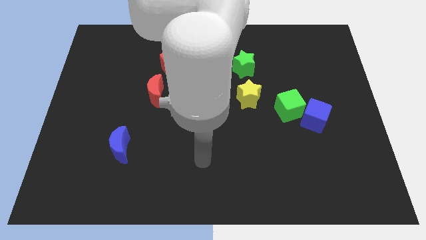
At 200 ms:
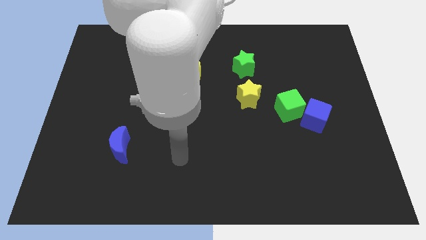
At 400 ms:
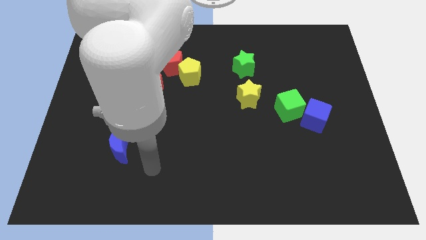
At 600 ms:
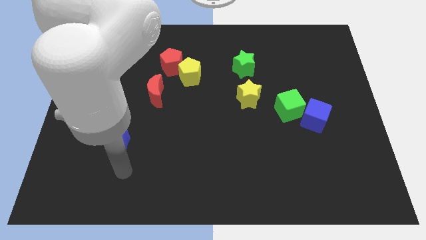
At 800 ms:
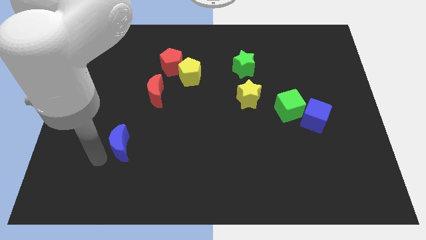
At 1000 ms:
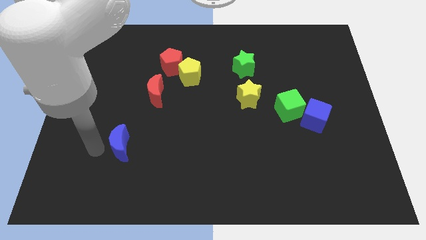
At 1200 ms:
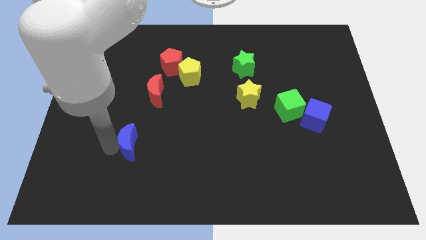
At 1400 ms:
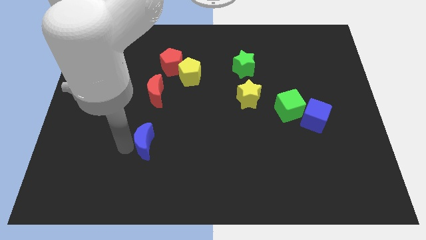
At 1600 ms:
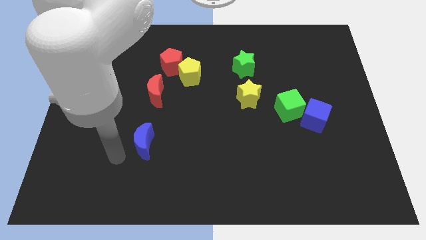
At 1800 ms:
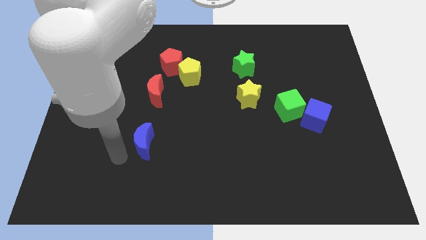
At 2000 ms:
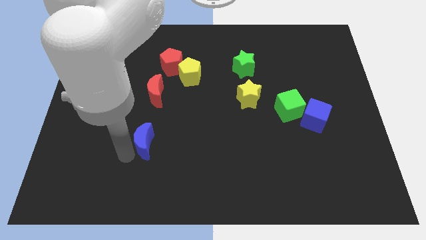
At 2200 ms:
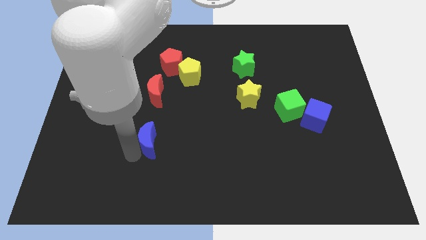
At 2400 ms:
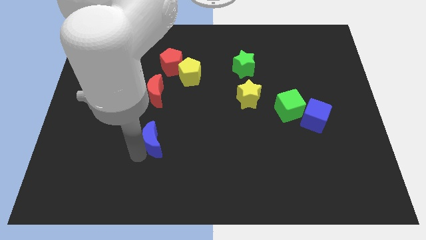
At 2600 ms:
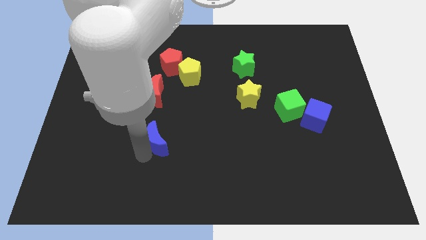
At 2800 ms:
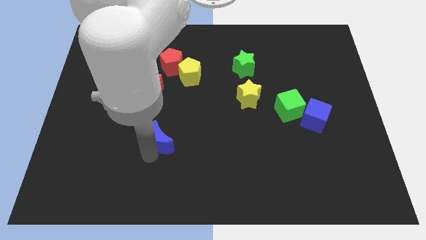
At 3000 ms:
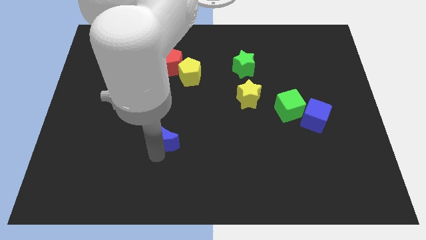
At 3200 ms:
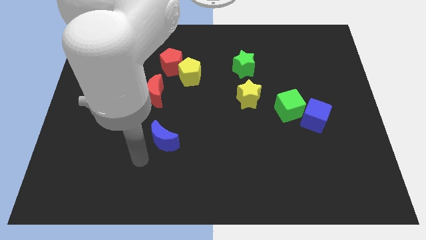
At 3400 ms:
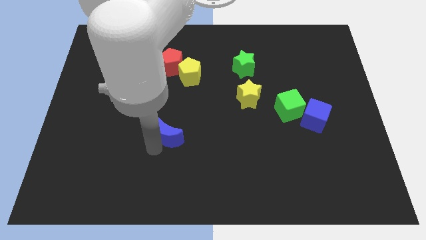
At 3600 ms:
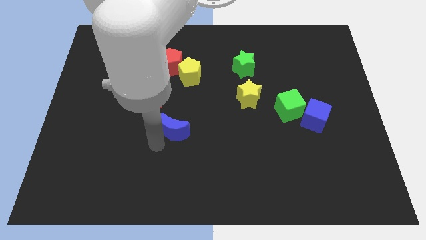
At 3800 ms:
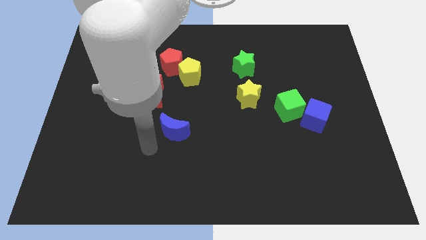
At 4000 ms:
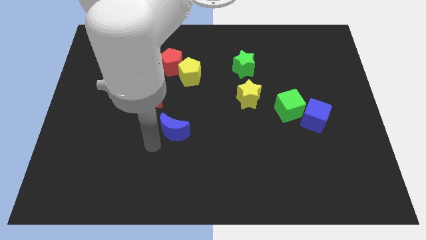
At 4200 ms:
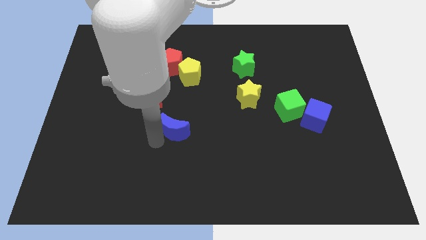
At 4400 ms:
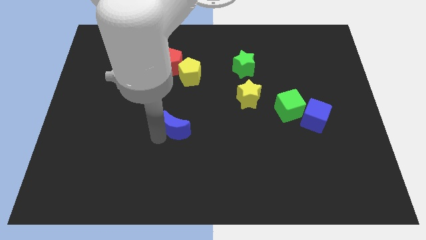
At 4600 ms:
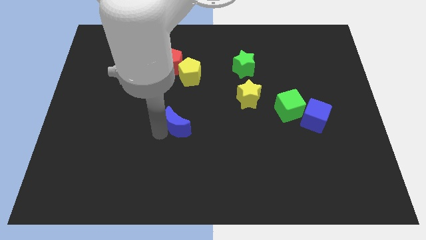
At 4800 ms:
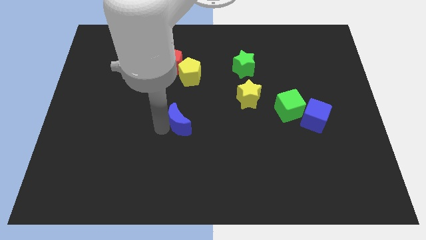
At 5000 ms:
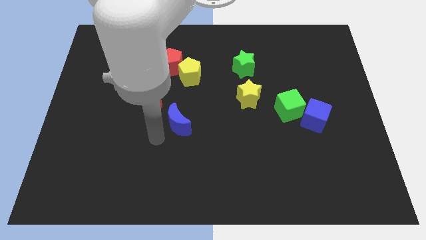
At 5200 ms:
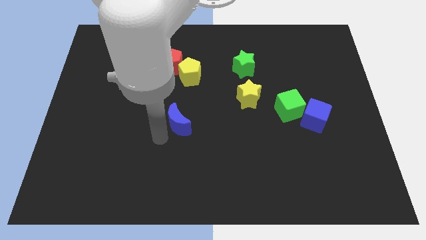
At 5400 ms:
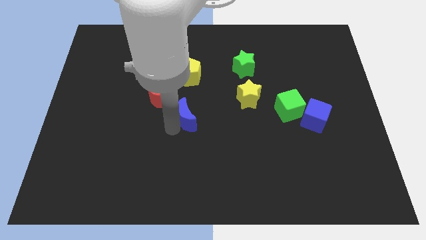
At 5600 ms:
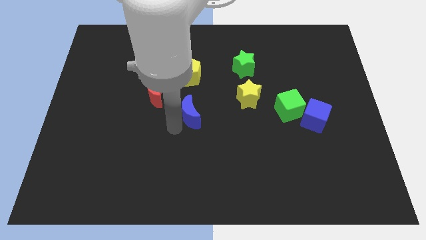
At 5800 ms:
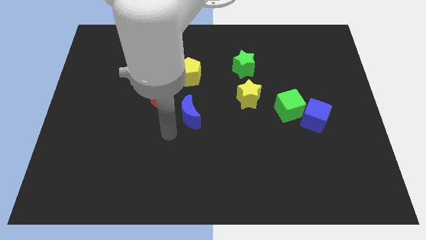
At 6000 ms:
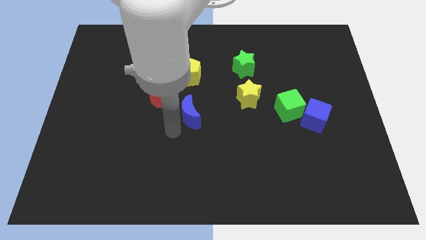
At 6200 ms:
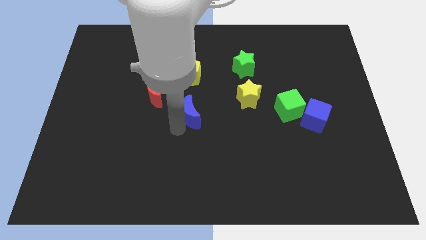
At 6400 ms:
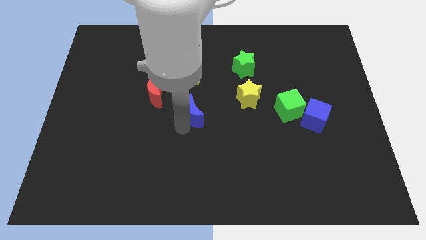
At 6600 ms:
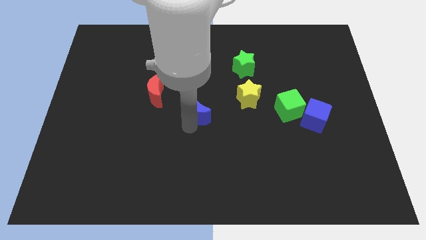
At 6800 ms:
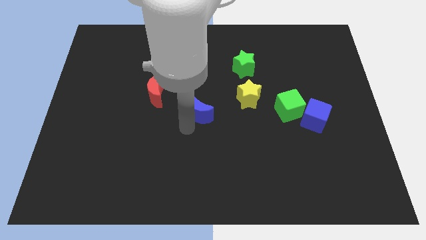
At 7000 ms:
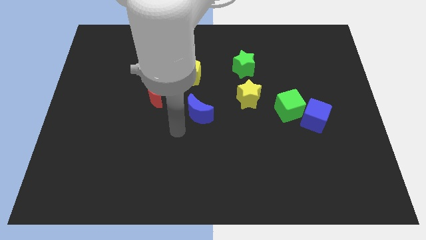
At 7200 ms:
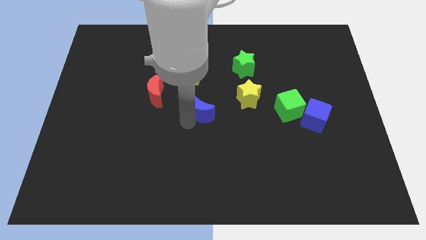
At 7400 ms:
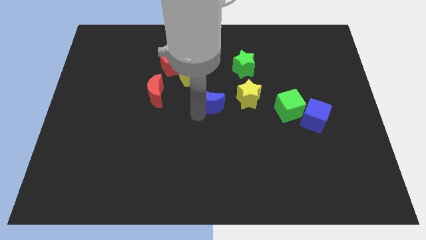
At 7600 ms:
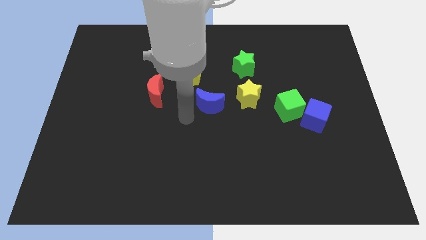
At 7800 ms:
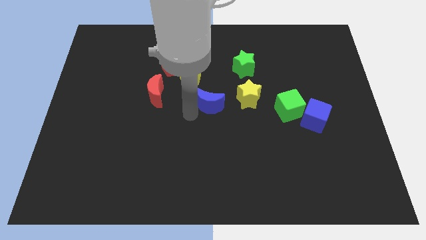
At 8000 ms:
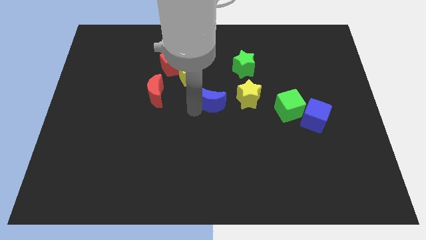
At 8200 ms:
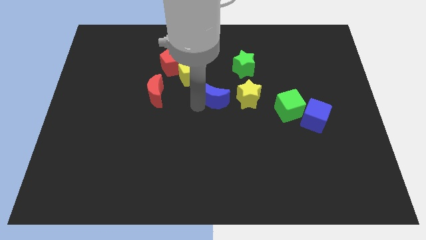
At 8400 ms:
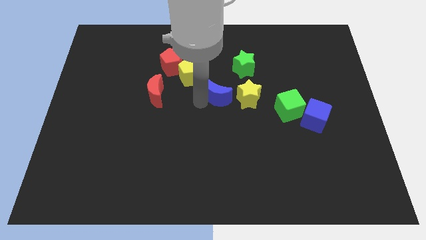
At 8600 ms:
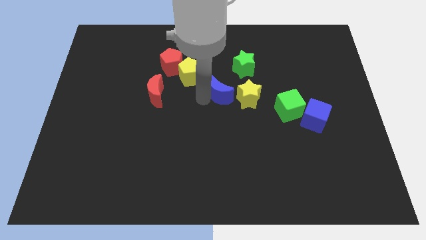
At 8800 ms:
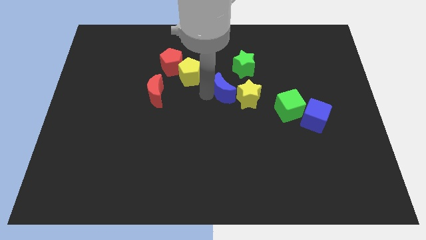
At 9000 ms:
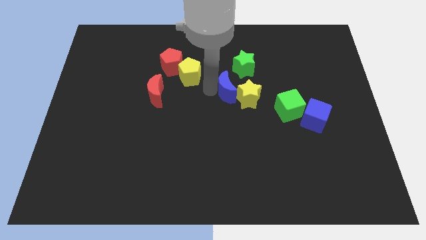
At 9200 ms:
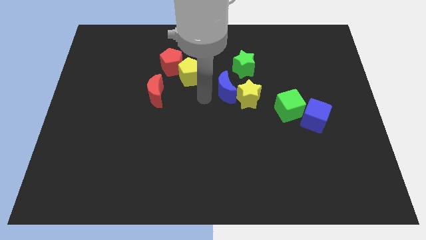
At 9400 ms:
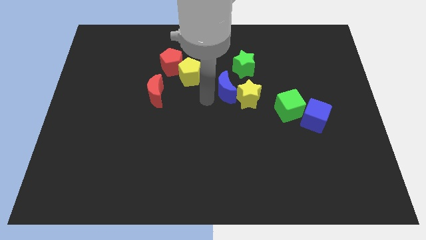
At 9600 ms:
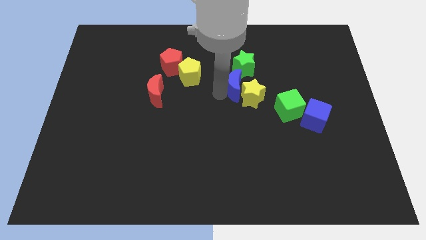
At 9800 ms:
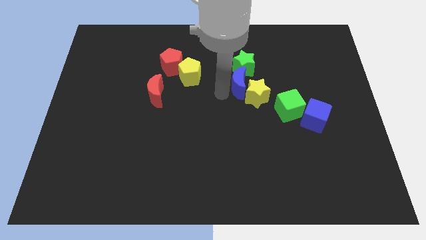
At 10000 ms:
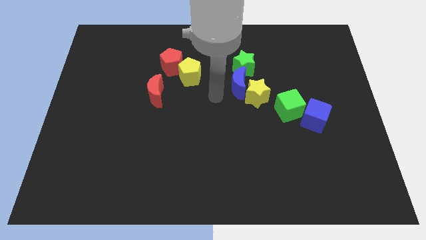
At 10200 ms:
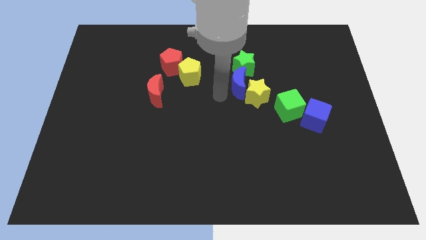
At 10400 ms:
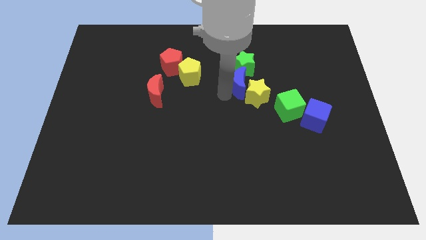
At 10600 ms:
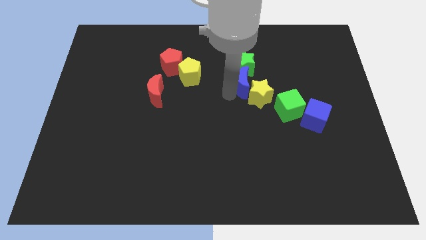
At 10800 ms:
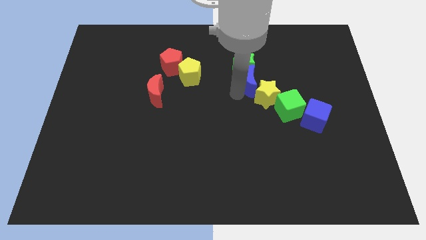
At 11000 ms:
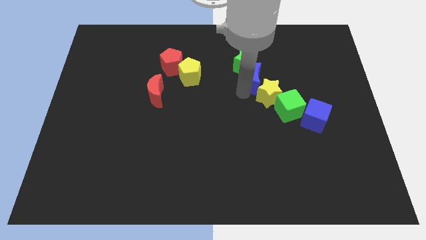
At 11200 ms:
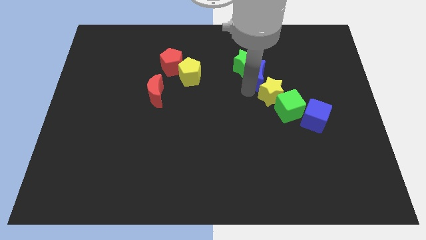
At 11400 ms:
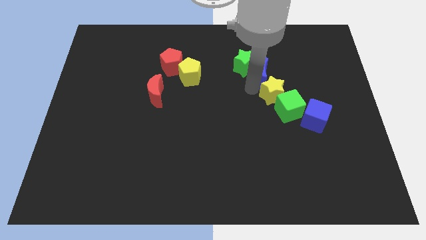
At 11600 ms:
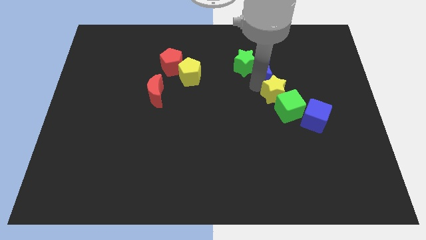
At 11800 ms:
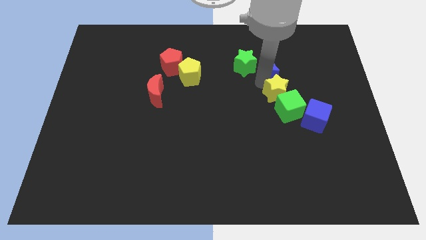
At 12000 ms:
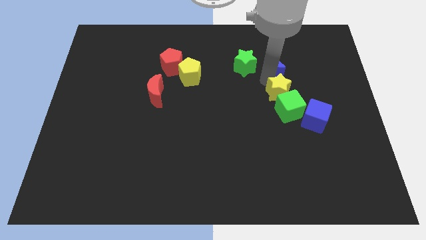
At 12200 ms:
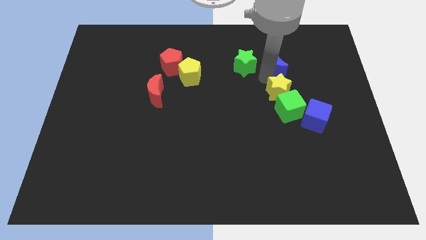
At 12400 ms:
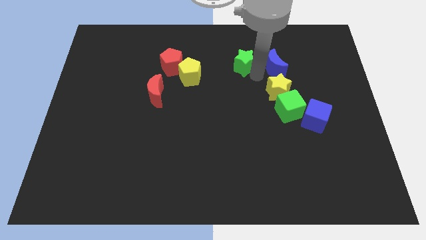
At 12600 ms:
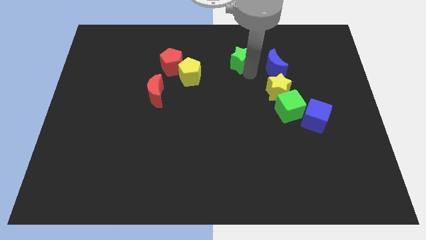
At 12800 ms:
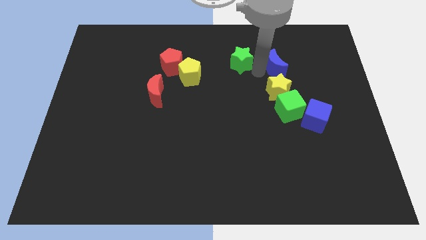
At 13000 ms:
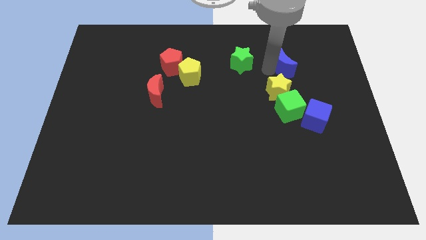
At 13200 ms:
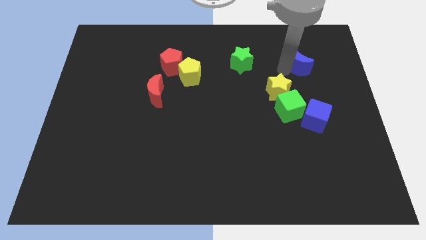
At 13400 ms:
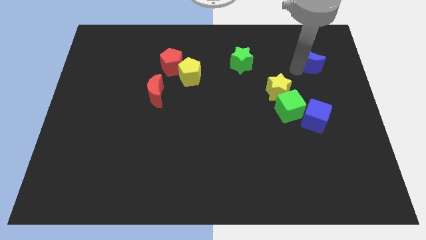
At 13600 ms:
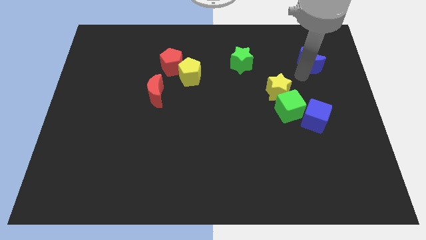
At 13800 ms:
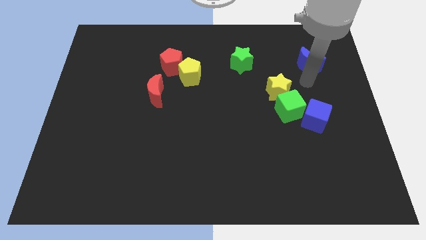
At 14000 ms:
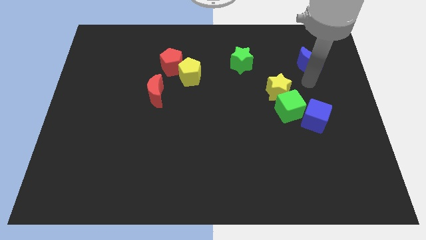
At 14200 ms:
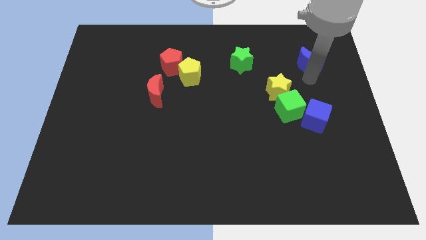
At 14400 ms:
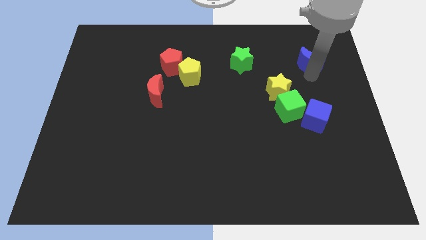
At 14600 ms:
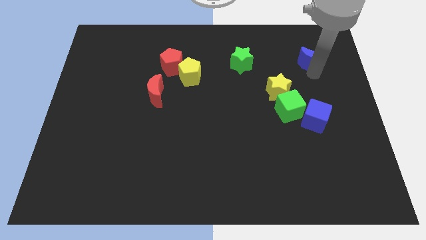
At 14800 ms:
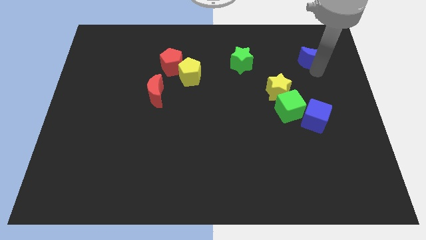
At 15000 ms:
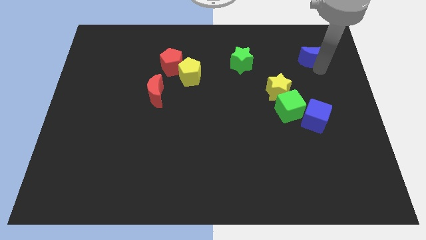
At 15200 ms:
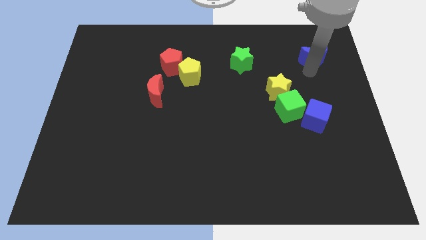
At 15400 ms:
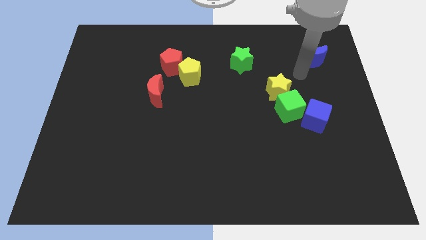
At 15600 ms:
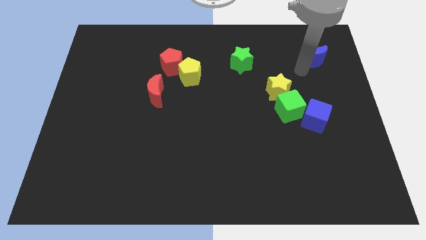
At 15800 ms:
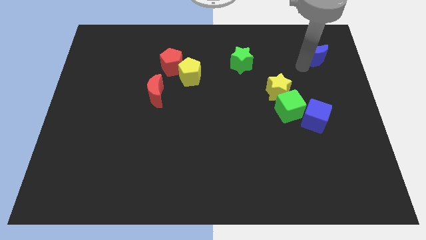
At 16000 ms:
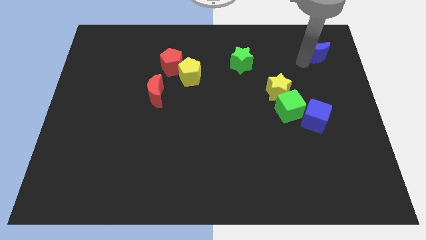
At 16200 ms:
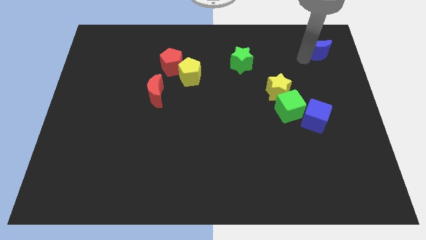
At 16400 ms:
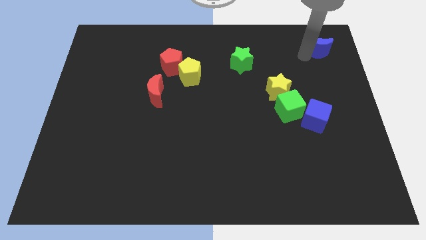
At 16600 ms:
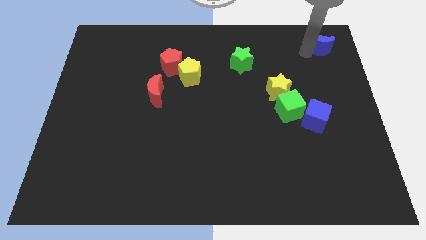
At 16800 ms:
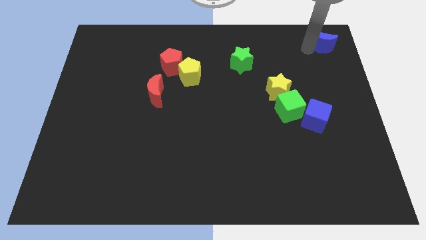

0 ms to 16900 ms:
slide the blue moon to the top right of the board
